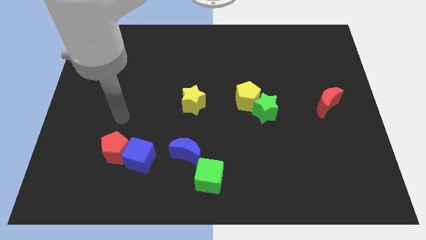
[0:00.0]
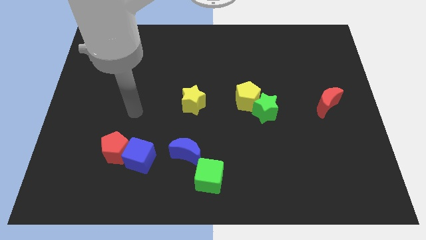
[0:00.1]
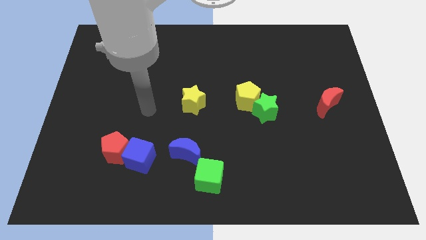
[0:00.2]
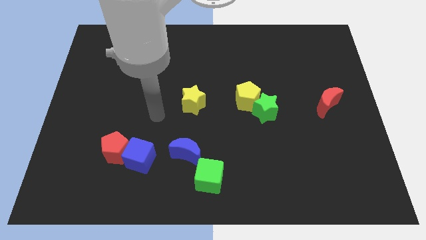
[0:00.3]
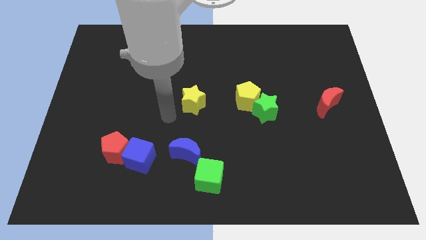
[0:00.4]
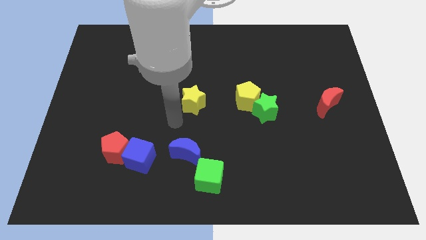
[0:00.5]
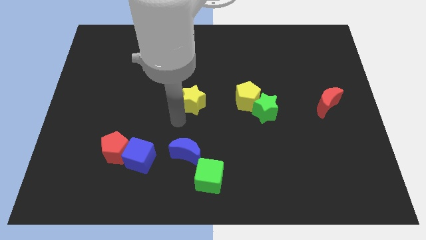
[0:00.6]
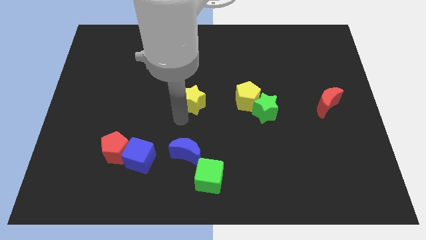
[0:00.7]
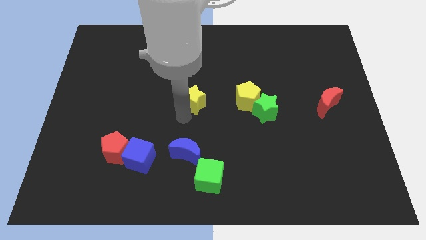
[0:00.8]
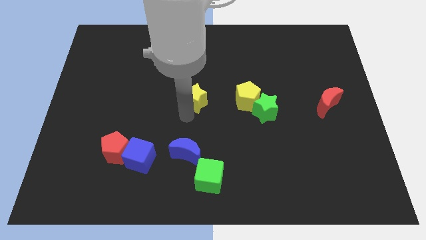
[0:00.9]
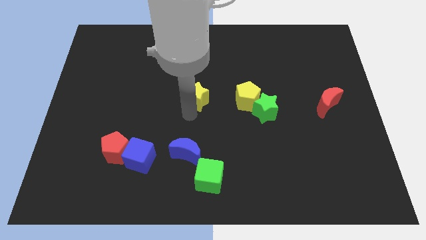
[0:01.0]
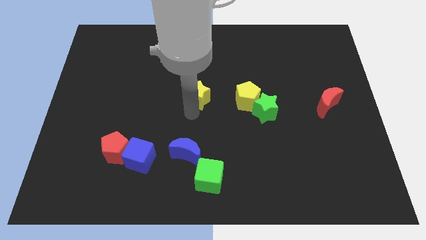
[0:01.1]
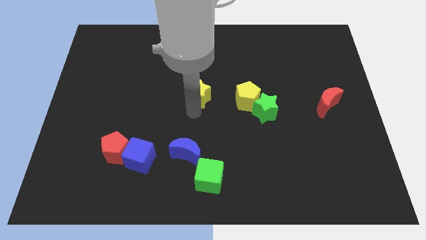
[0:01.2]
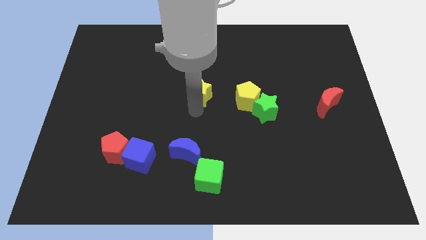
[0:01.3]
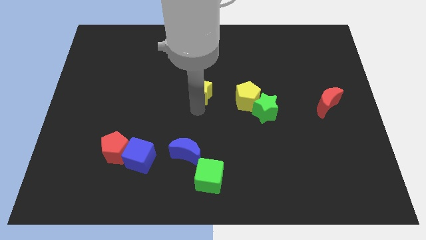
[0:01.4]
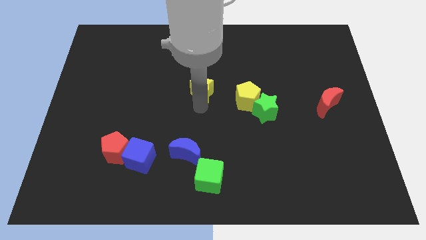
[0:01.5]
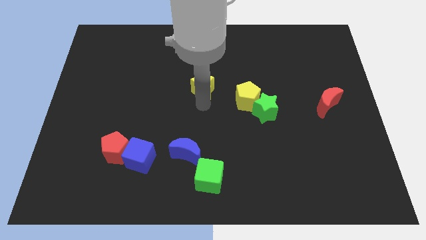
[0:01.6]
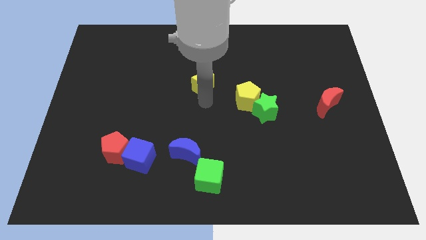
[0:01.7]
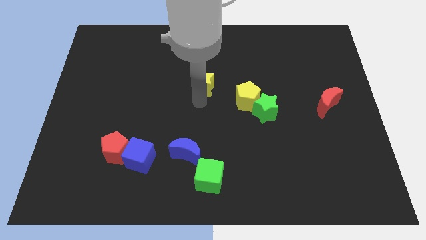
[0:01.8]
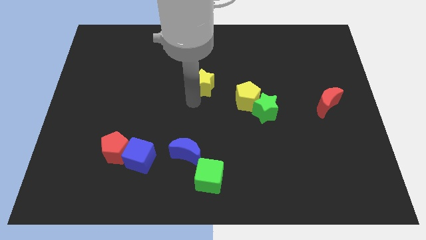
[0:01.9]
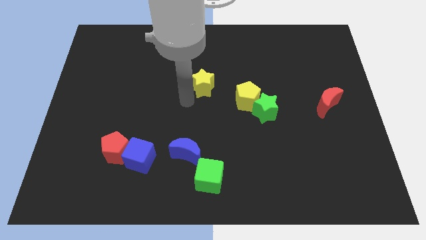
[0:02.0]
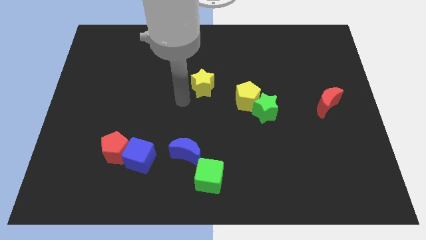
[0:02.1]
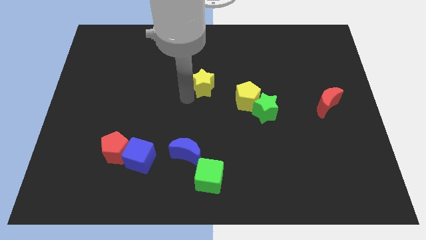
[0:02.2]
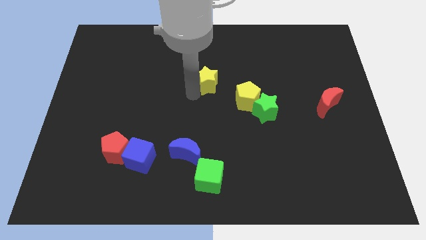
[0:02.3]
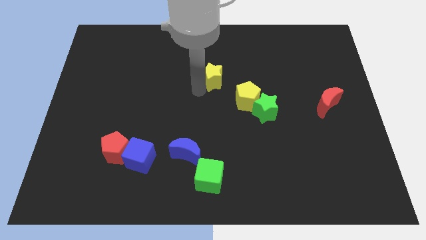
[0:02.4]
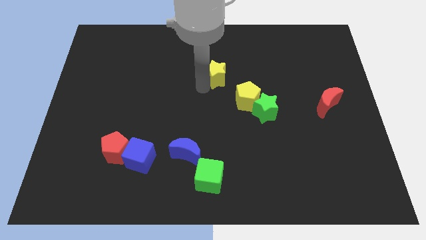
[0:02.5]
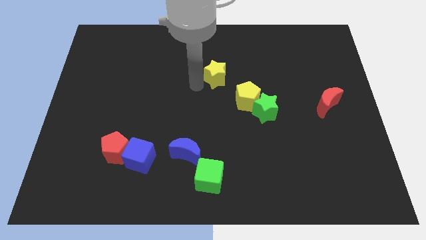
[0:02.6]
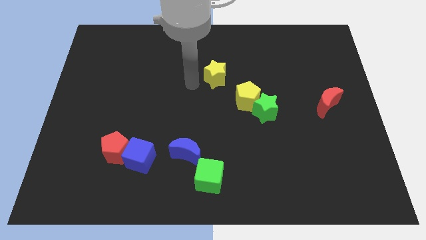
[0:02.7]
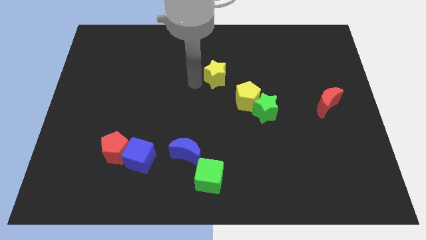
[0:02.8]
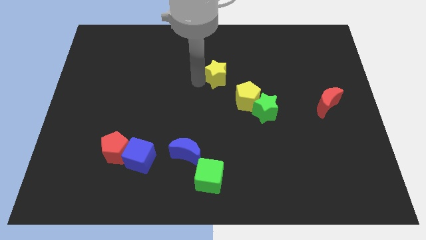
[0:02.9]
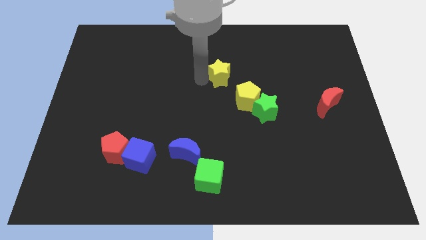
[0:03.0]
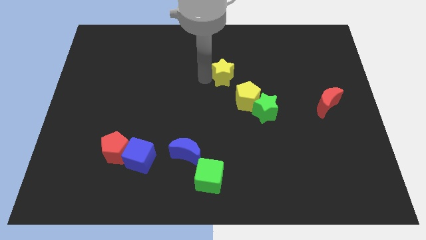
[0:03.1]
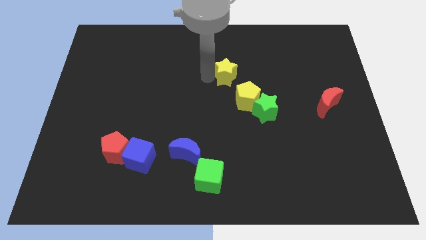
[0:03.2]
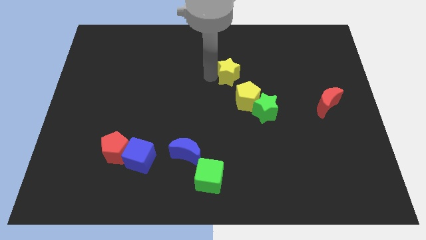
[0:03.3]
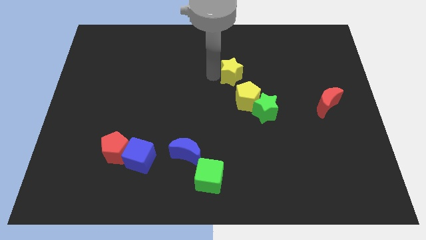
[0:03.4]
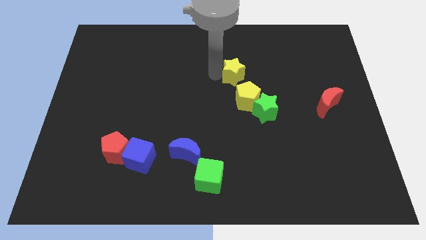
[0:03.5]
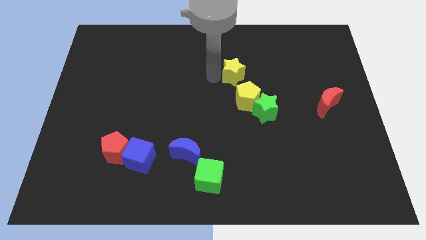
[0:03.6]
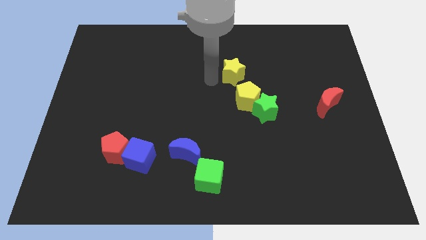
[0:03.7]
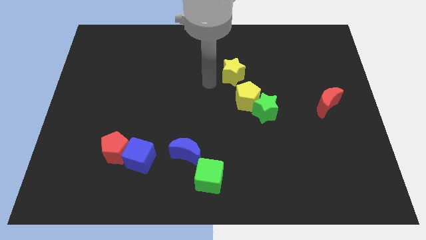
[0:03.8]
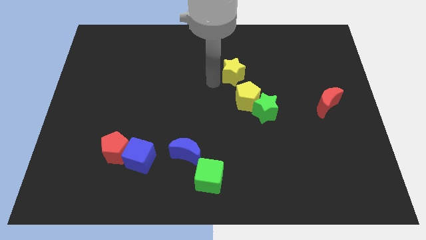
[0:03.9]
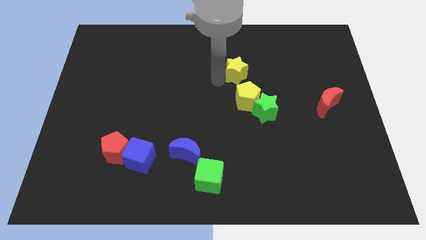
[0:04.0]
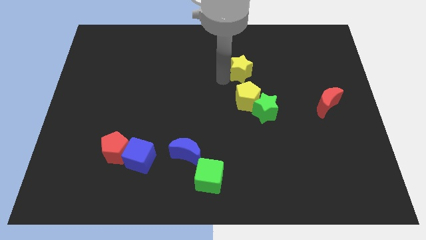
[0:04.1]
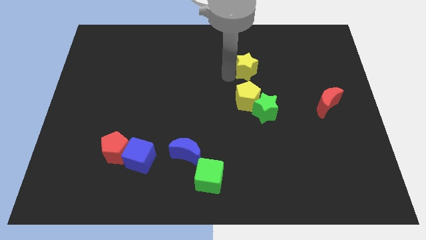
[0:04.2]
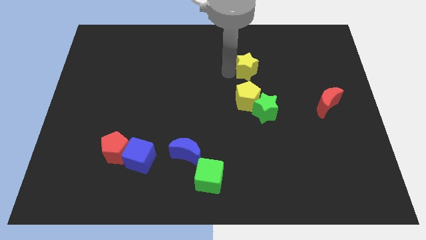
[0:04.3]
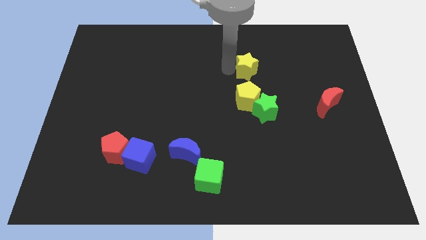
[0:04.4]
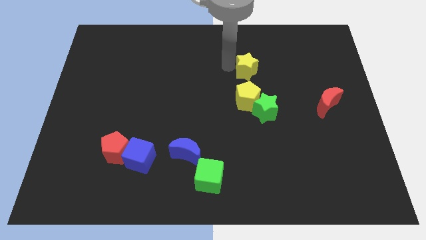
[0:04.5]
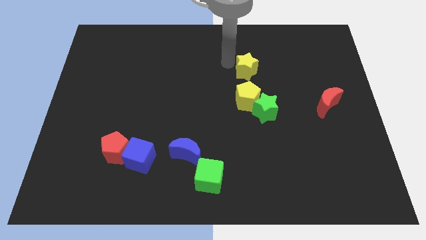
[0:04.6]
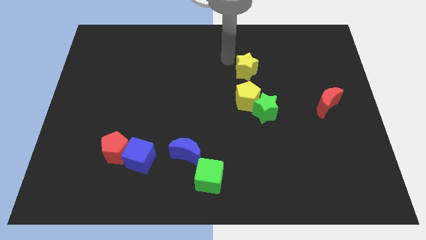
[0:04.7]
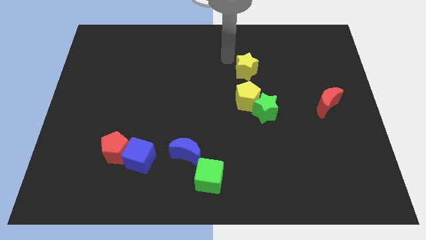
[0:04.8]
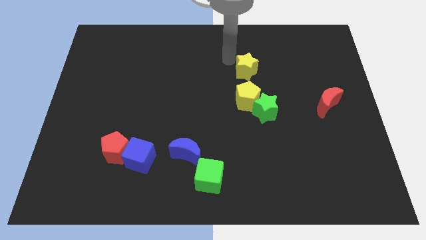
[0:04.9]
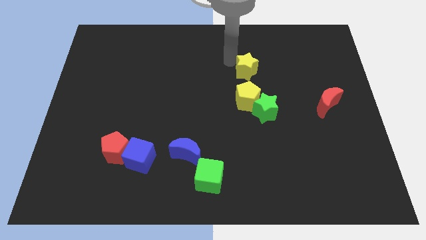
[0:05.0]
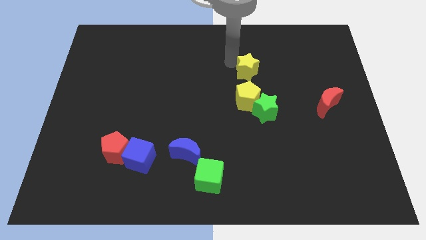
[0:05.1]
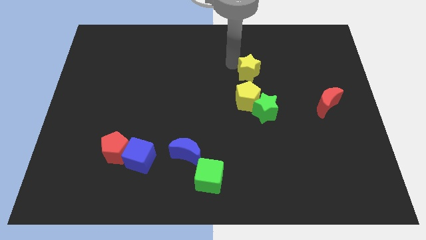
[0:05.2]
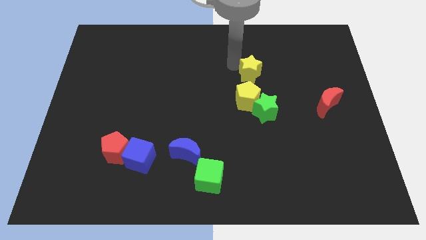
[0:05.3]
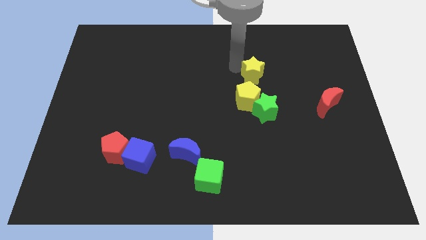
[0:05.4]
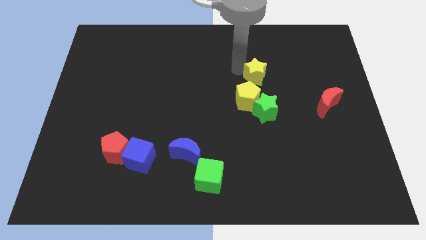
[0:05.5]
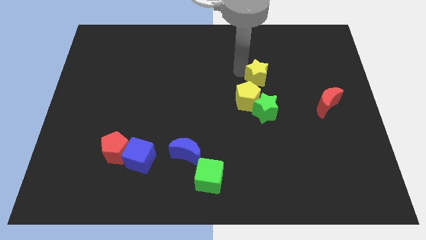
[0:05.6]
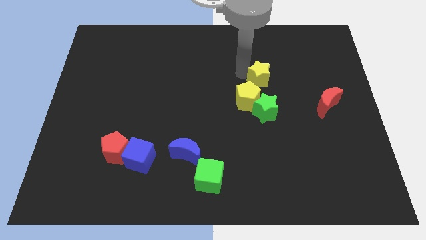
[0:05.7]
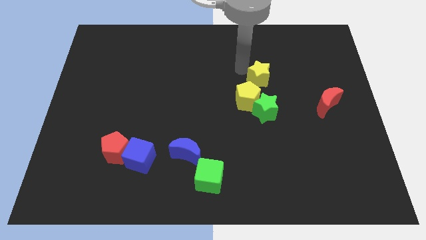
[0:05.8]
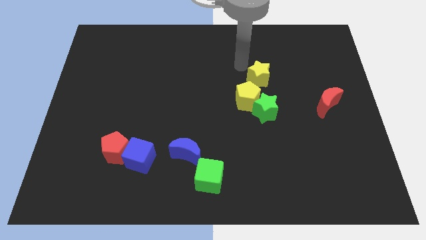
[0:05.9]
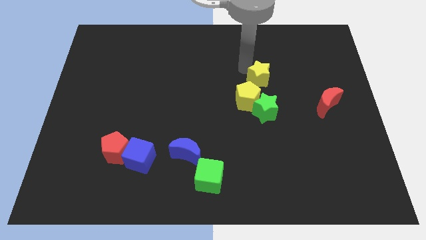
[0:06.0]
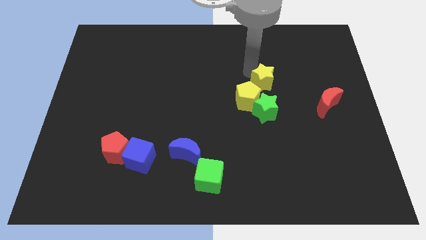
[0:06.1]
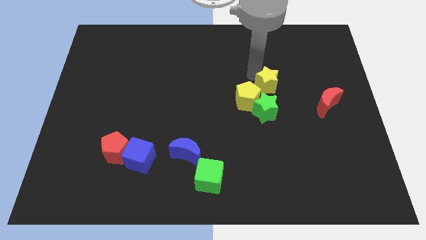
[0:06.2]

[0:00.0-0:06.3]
move the yellow star right of the yellow pentagon
